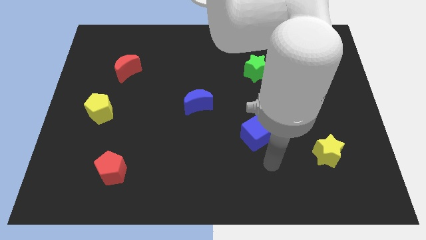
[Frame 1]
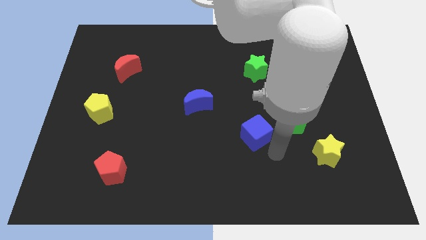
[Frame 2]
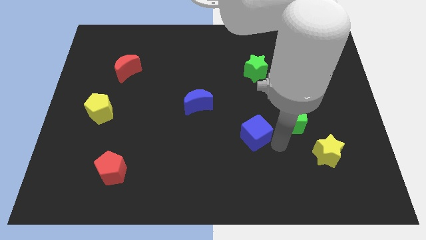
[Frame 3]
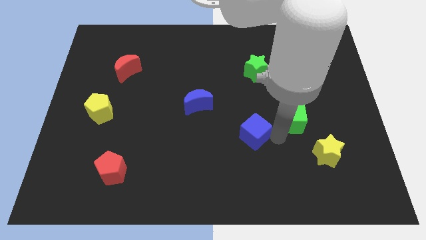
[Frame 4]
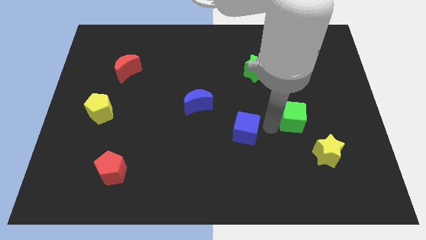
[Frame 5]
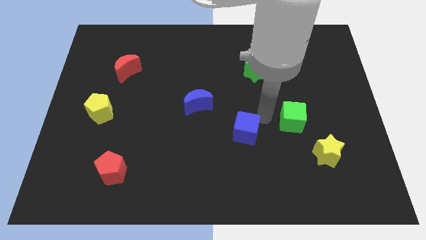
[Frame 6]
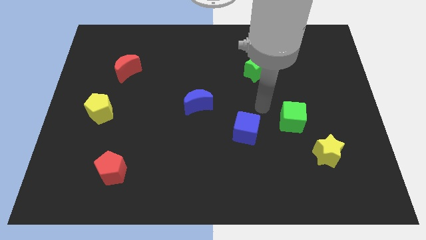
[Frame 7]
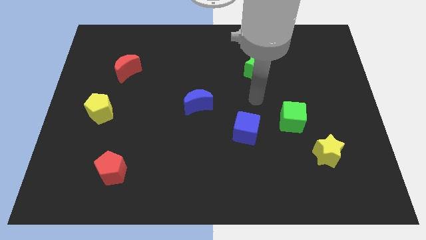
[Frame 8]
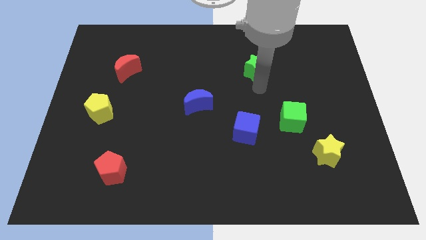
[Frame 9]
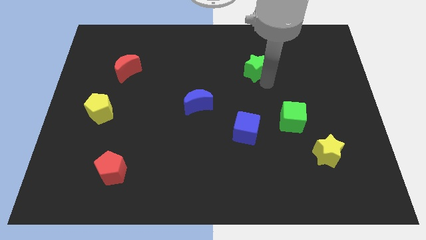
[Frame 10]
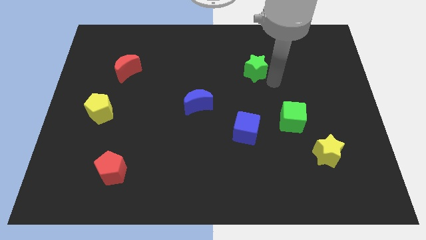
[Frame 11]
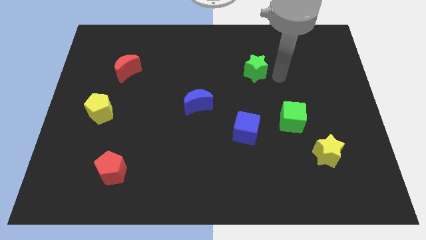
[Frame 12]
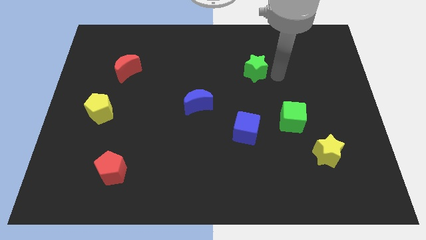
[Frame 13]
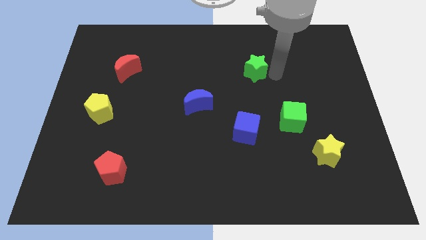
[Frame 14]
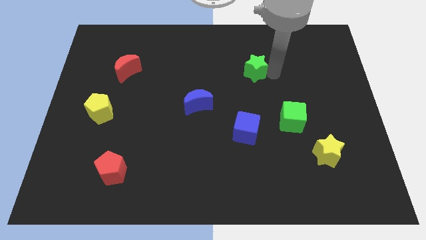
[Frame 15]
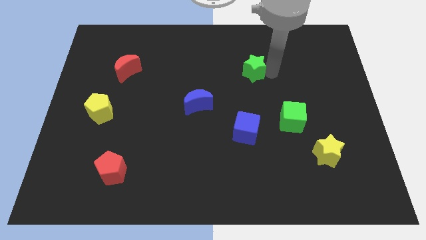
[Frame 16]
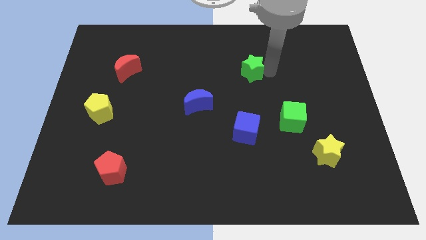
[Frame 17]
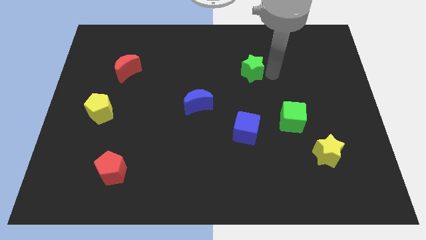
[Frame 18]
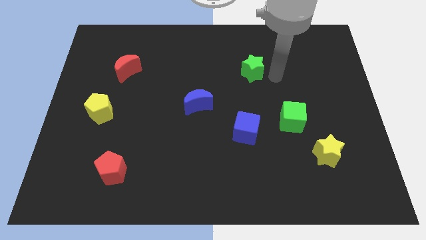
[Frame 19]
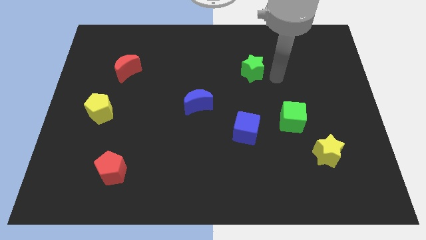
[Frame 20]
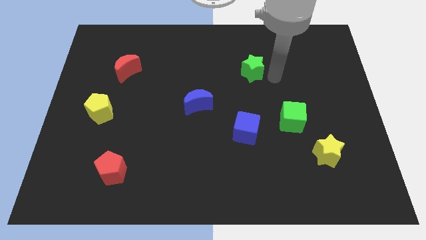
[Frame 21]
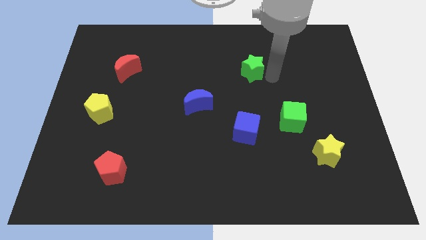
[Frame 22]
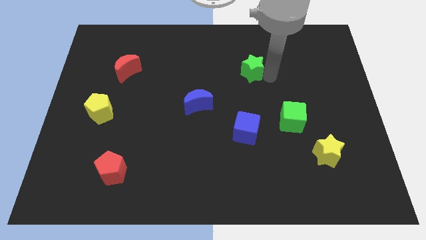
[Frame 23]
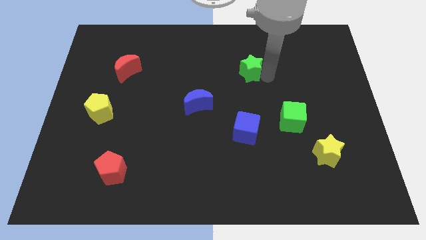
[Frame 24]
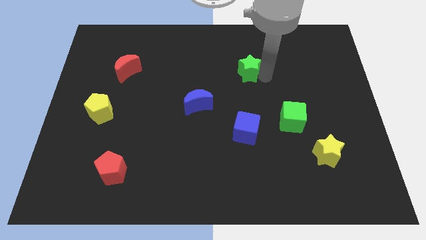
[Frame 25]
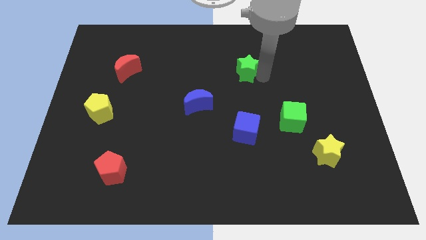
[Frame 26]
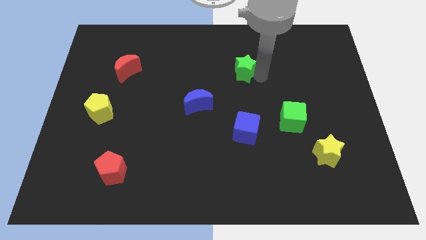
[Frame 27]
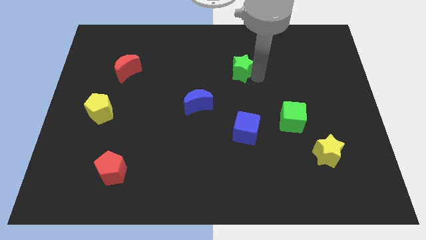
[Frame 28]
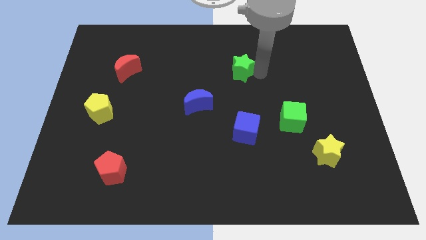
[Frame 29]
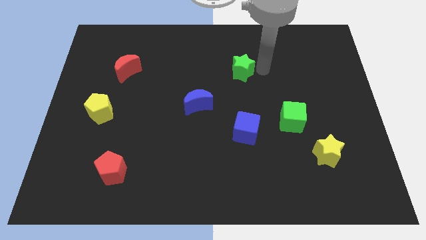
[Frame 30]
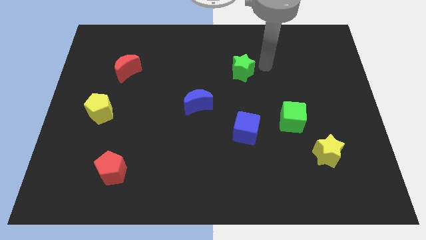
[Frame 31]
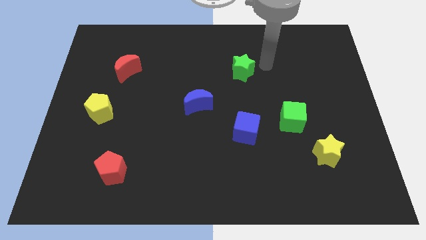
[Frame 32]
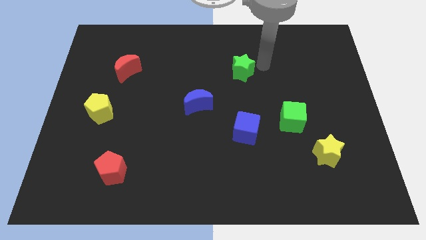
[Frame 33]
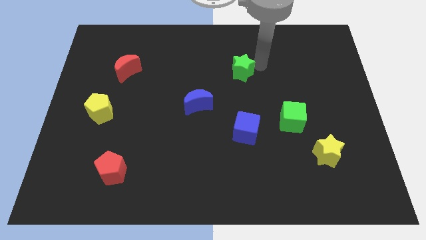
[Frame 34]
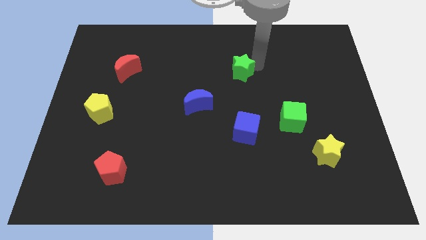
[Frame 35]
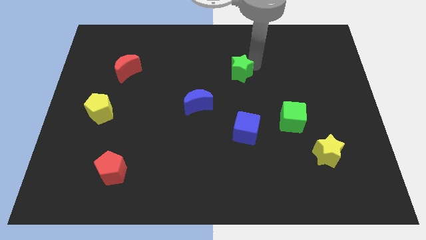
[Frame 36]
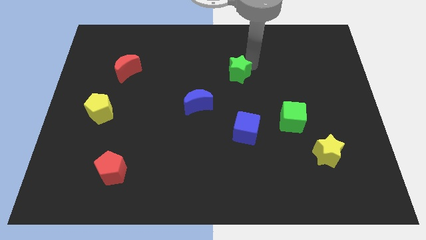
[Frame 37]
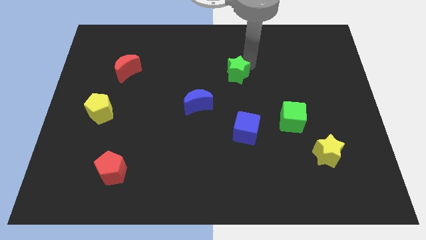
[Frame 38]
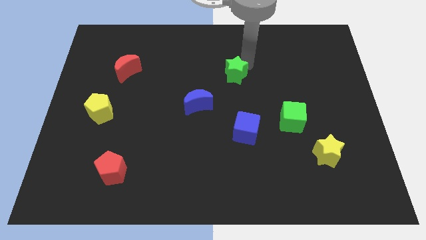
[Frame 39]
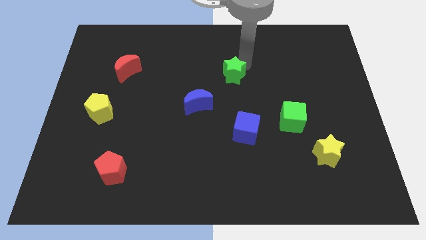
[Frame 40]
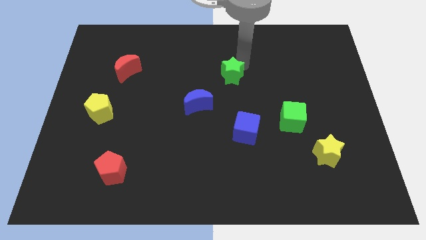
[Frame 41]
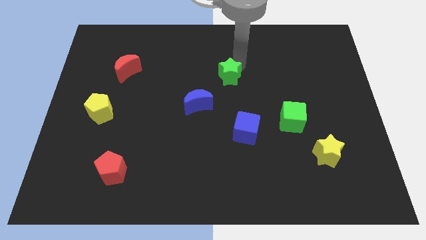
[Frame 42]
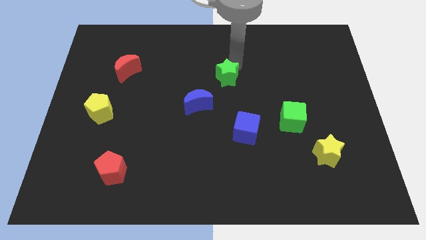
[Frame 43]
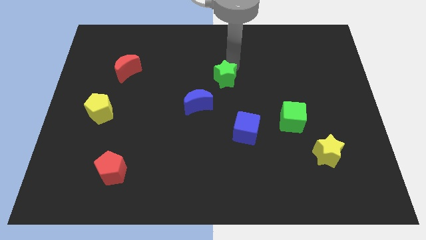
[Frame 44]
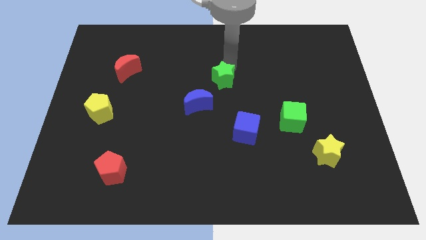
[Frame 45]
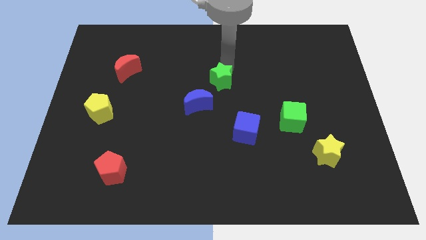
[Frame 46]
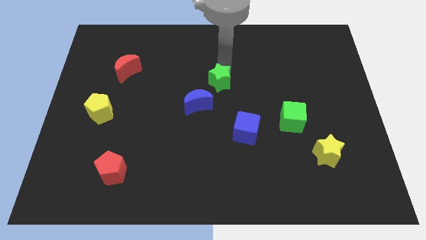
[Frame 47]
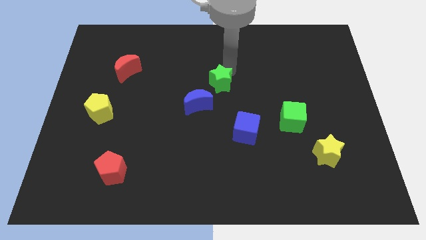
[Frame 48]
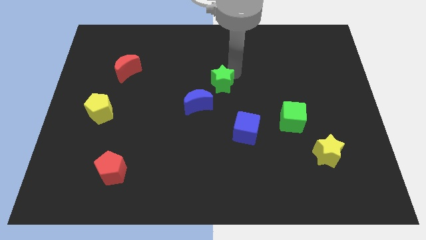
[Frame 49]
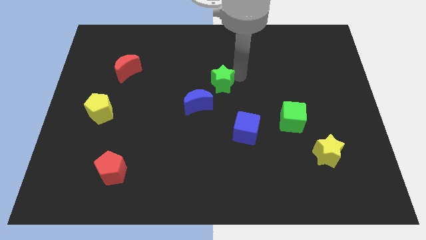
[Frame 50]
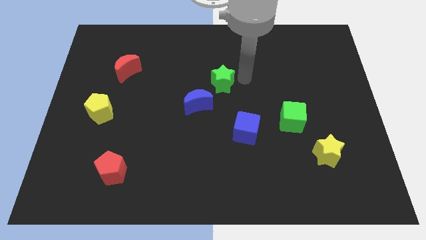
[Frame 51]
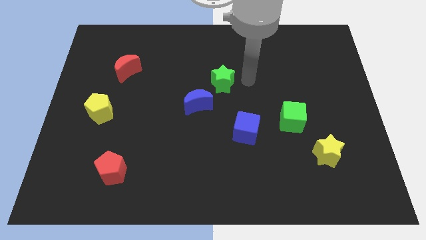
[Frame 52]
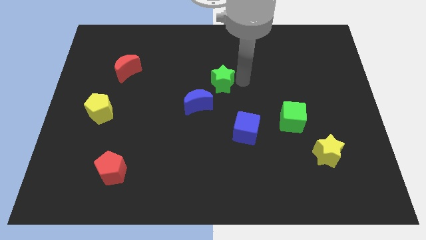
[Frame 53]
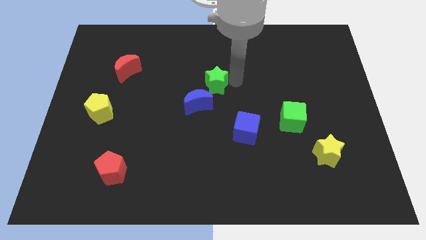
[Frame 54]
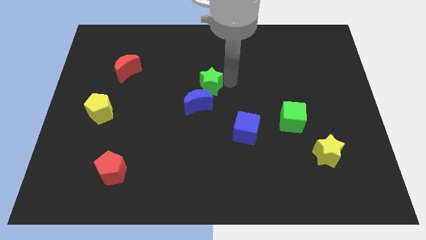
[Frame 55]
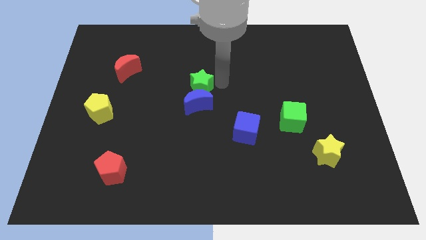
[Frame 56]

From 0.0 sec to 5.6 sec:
move the green star to the top left side of the blue moon
